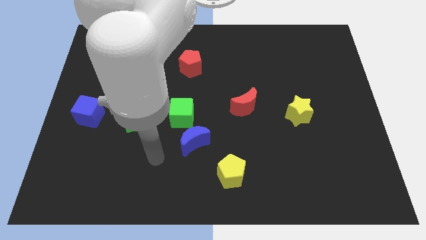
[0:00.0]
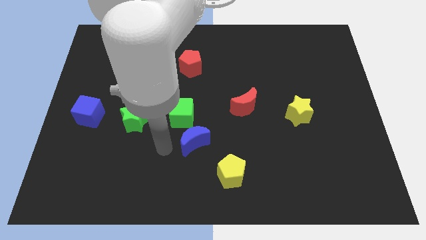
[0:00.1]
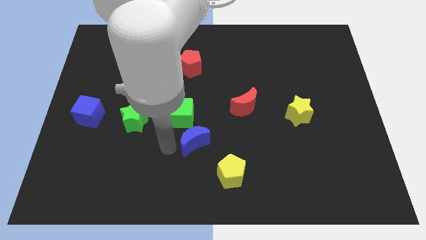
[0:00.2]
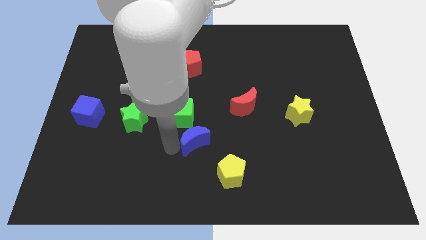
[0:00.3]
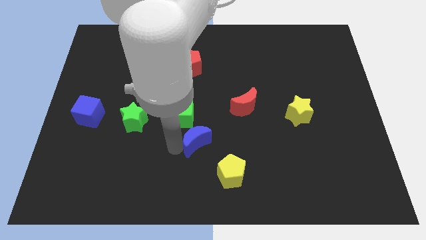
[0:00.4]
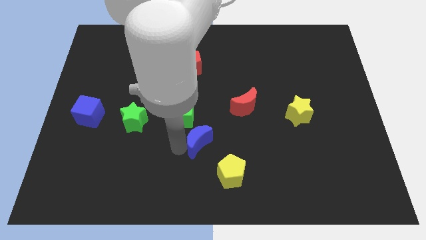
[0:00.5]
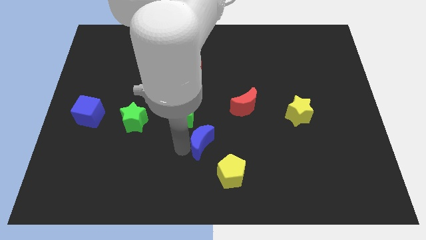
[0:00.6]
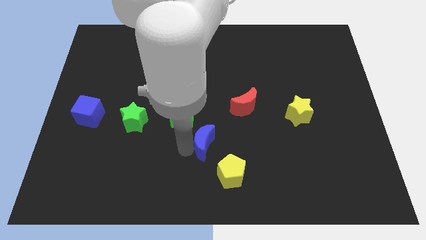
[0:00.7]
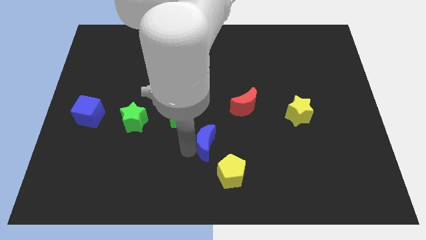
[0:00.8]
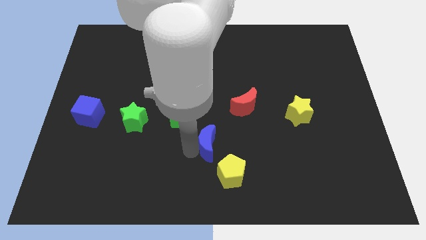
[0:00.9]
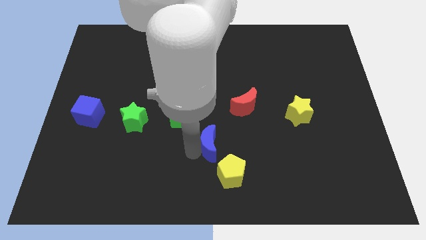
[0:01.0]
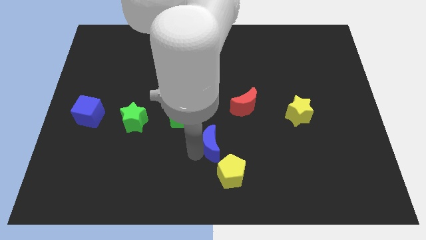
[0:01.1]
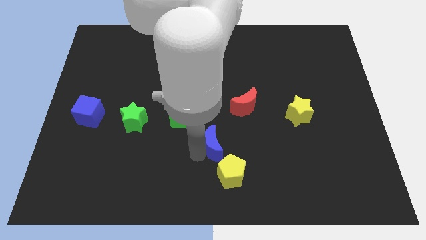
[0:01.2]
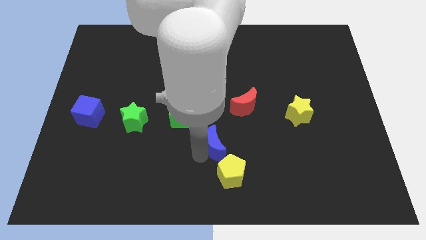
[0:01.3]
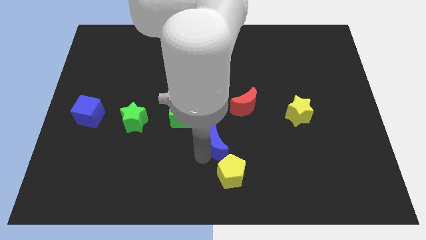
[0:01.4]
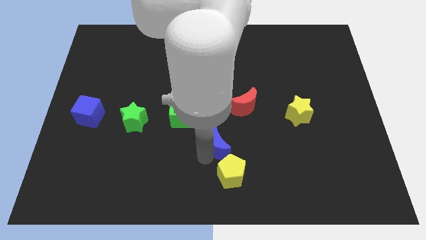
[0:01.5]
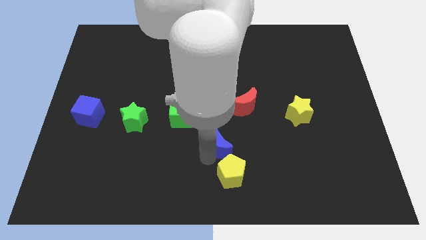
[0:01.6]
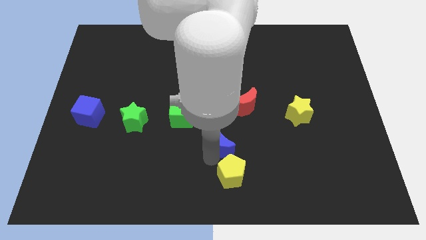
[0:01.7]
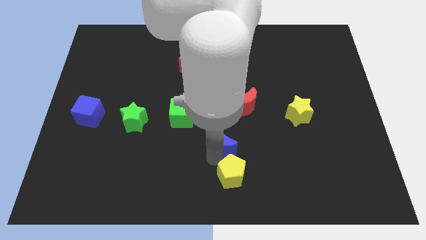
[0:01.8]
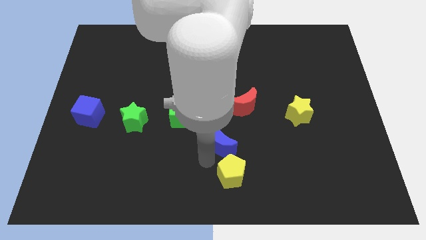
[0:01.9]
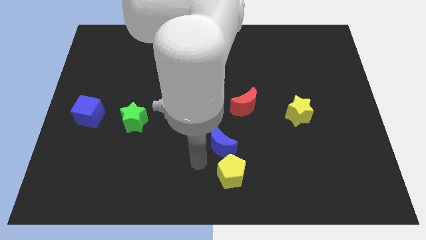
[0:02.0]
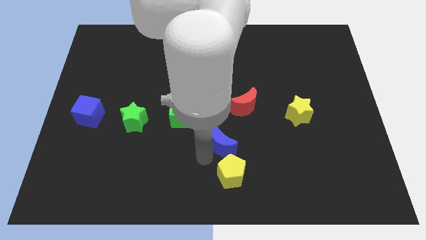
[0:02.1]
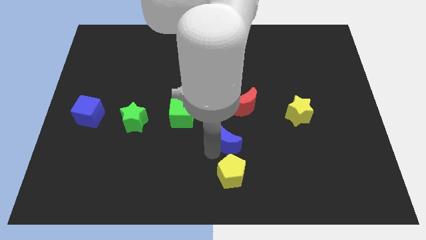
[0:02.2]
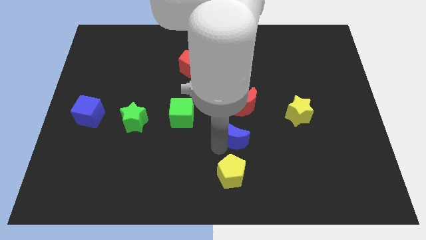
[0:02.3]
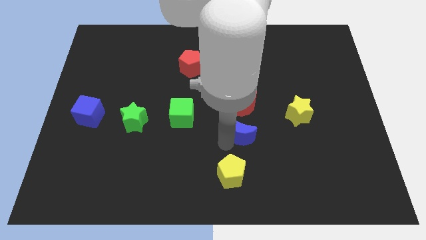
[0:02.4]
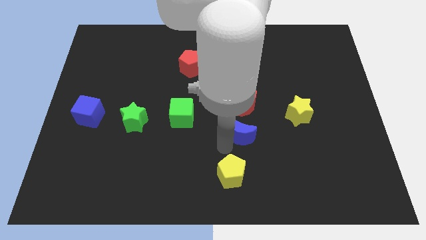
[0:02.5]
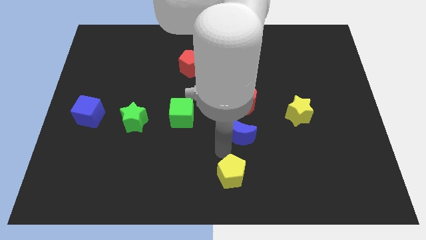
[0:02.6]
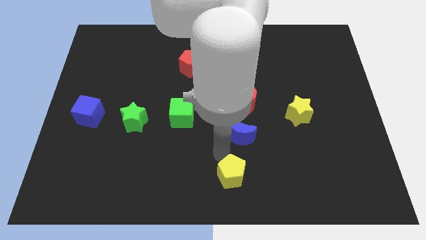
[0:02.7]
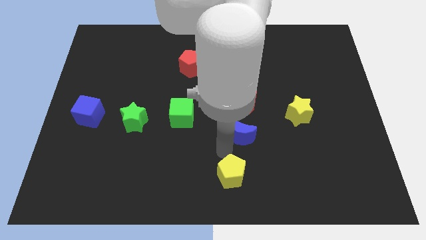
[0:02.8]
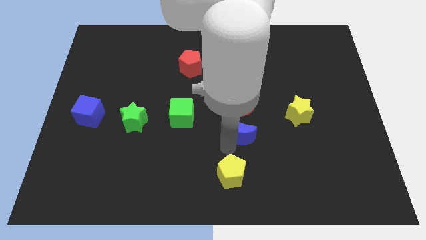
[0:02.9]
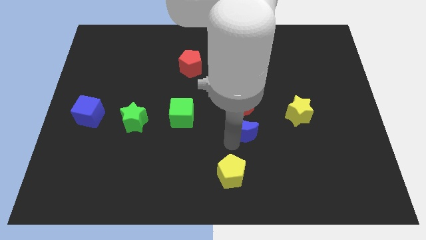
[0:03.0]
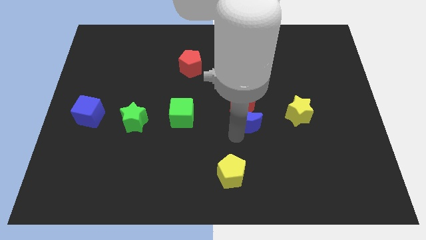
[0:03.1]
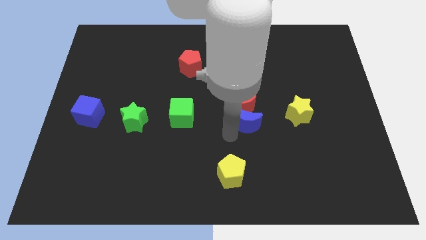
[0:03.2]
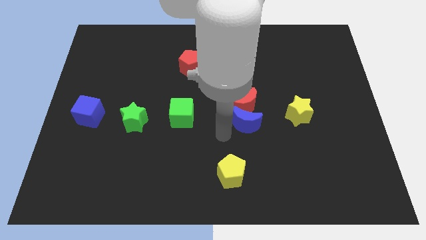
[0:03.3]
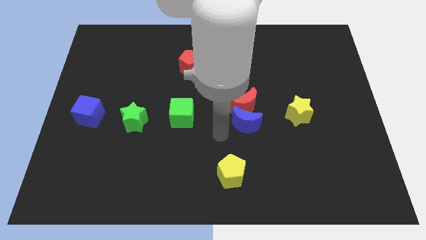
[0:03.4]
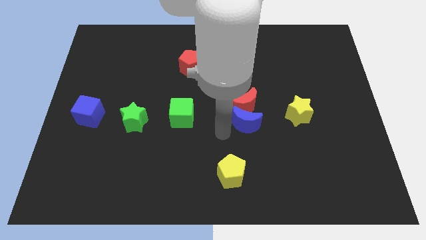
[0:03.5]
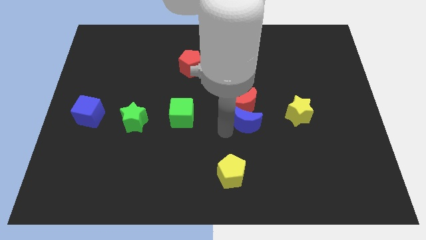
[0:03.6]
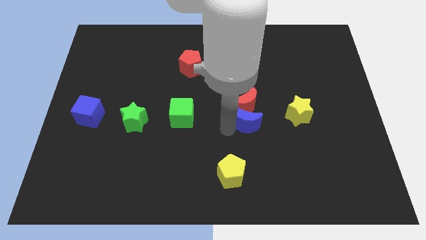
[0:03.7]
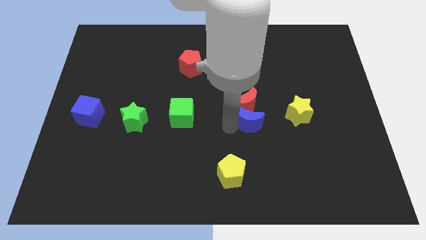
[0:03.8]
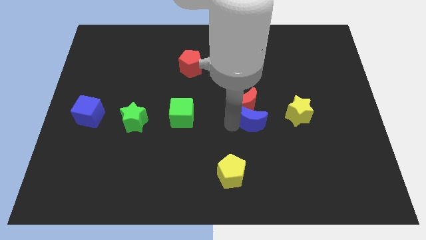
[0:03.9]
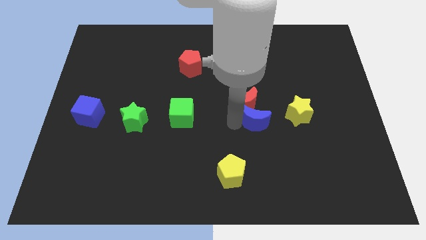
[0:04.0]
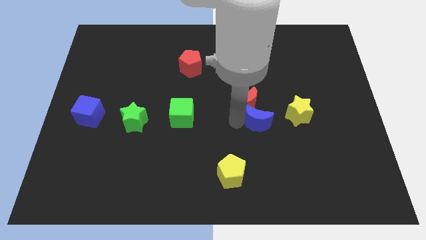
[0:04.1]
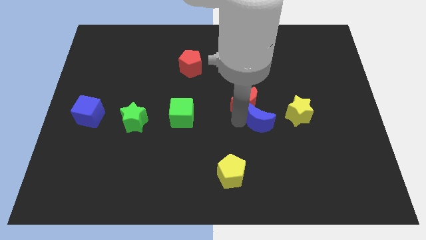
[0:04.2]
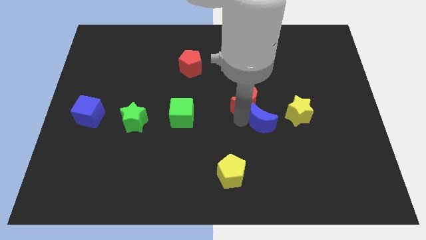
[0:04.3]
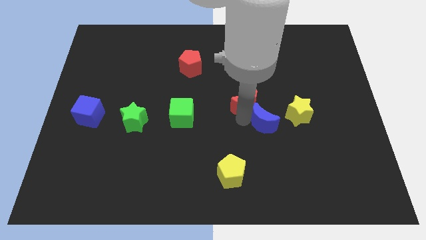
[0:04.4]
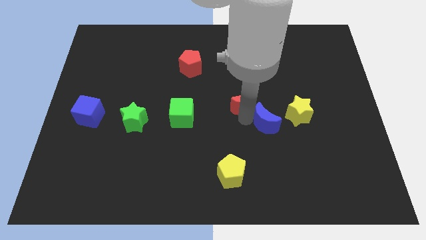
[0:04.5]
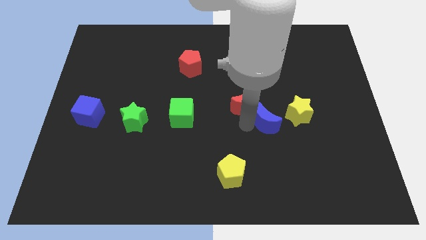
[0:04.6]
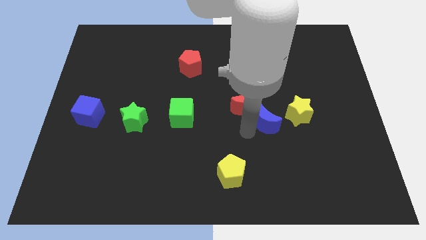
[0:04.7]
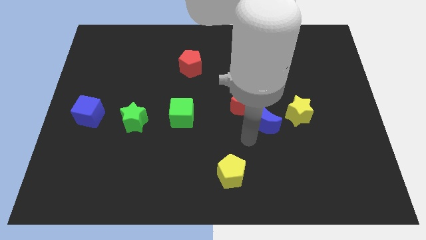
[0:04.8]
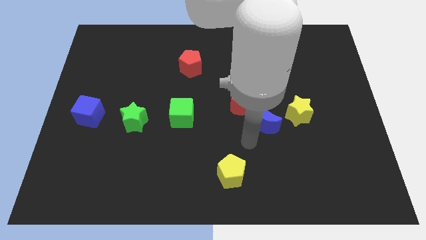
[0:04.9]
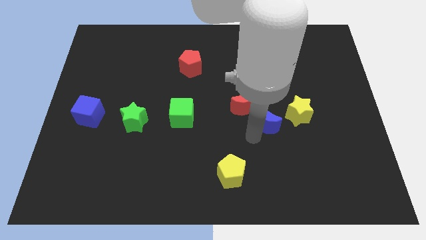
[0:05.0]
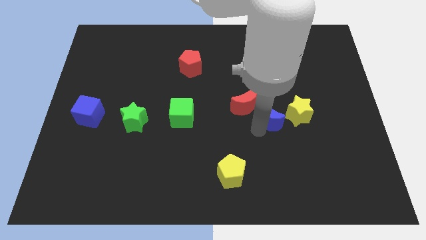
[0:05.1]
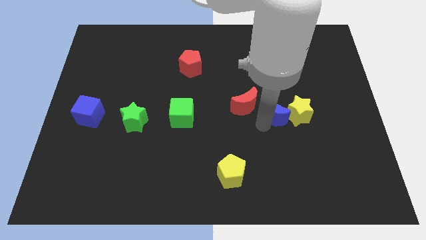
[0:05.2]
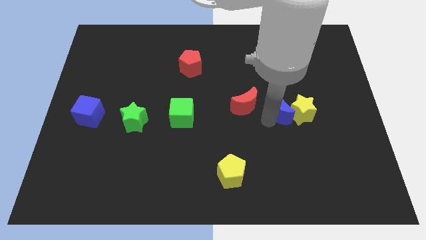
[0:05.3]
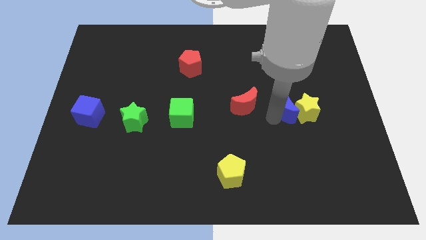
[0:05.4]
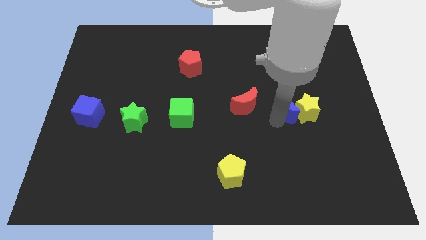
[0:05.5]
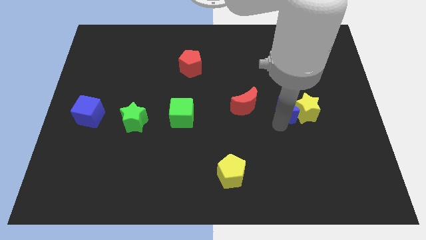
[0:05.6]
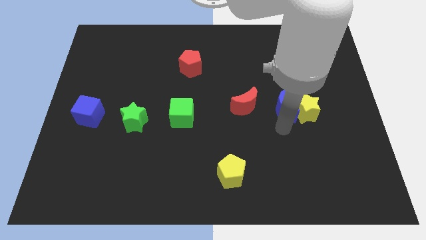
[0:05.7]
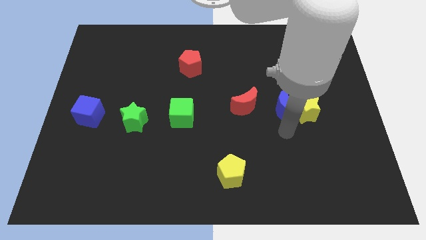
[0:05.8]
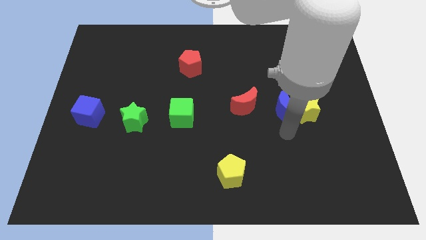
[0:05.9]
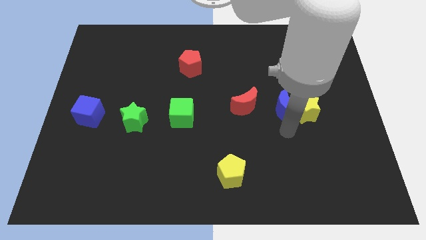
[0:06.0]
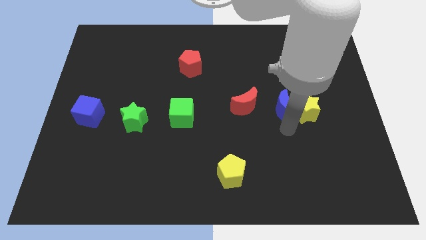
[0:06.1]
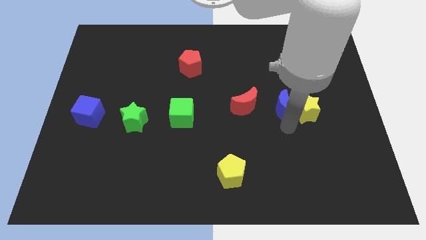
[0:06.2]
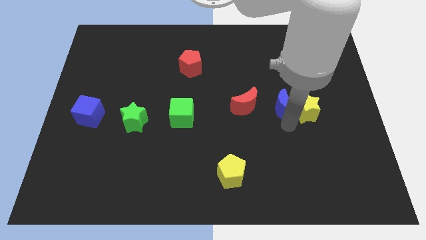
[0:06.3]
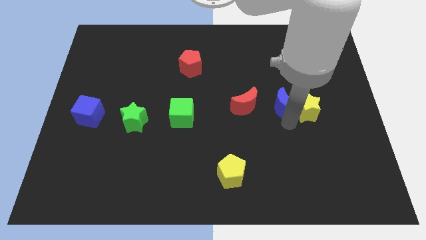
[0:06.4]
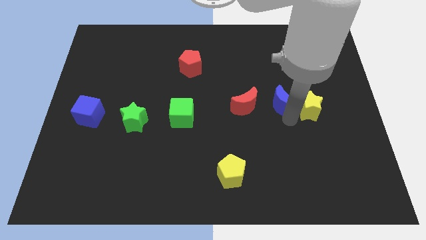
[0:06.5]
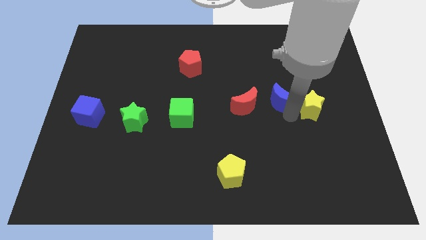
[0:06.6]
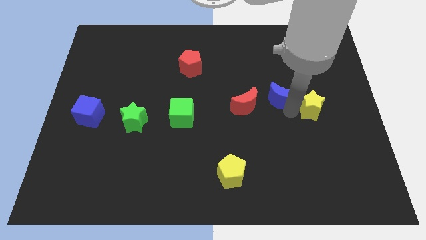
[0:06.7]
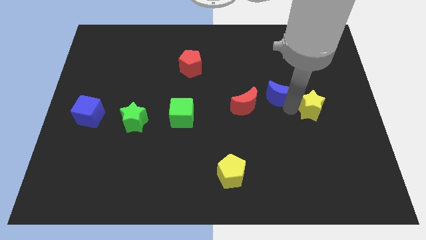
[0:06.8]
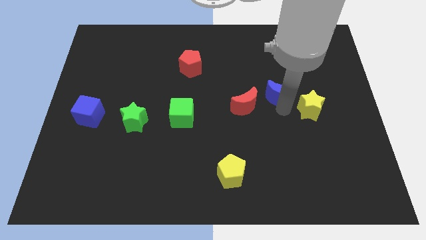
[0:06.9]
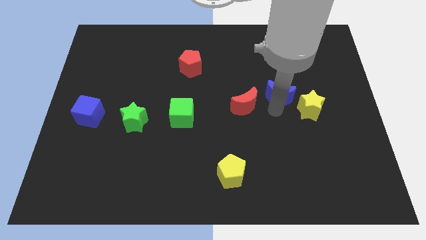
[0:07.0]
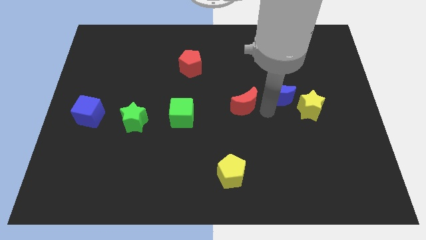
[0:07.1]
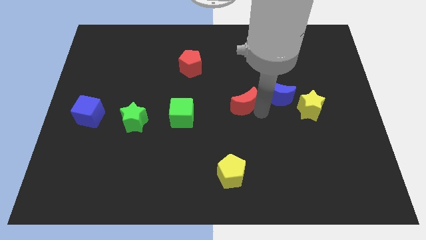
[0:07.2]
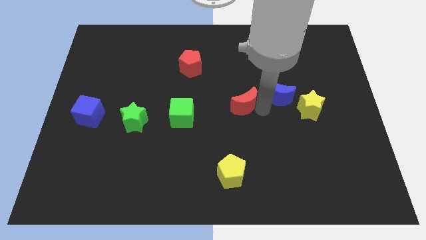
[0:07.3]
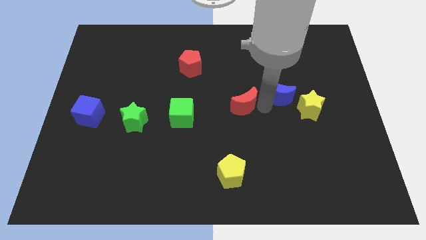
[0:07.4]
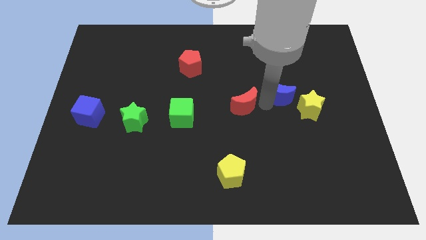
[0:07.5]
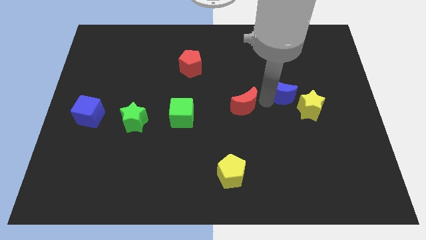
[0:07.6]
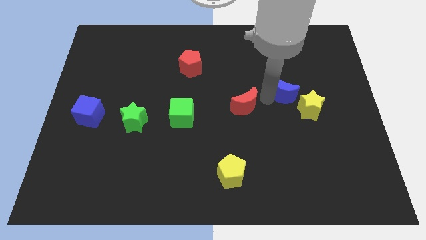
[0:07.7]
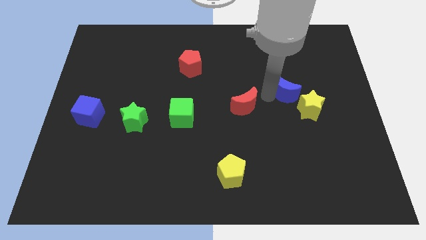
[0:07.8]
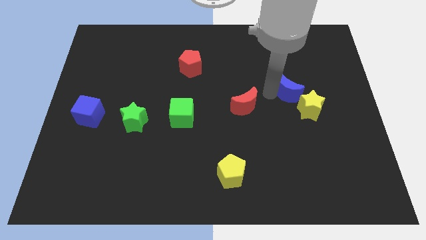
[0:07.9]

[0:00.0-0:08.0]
push the blue moon to the top of the yellow star
